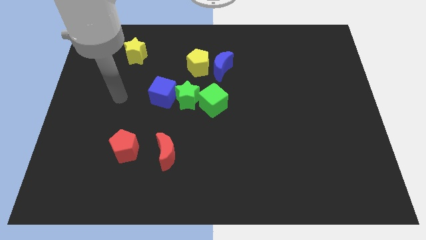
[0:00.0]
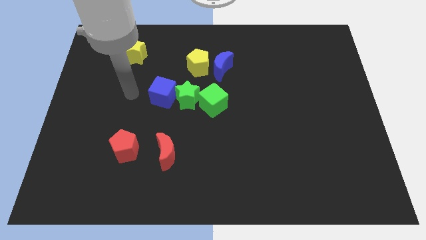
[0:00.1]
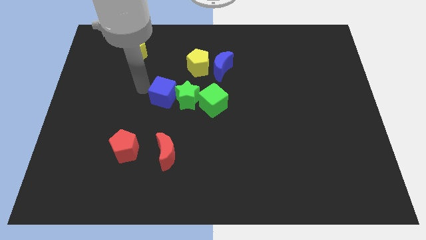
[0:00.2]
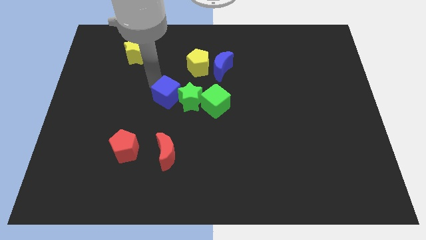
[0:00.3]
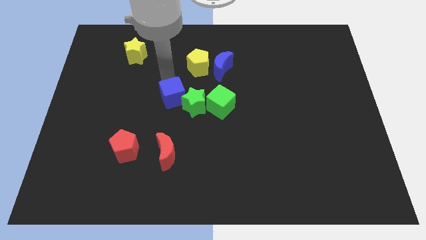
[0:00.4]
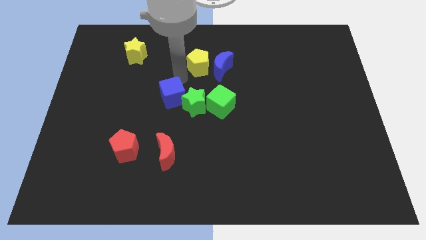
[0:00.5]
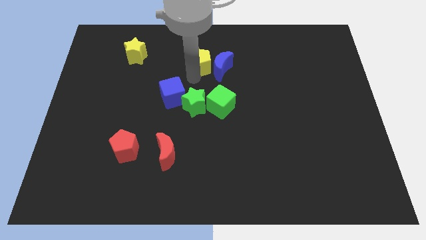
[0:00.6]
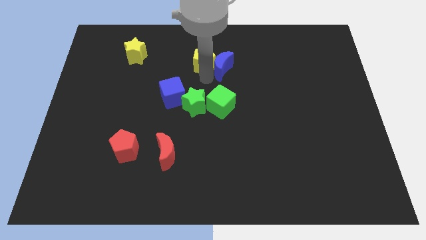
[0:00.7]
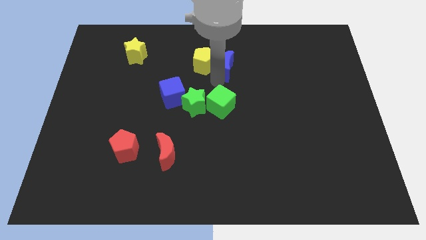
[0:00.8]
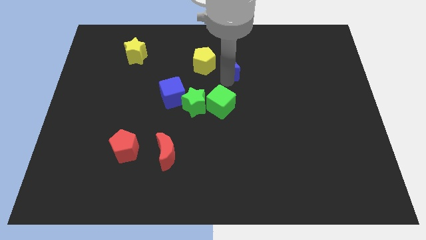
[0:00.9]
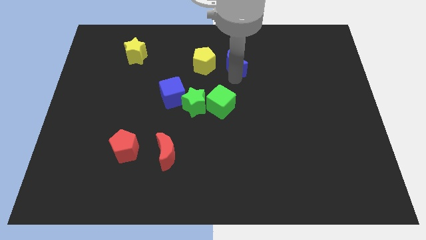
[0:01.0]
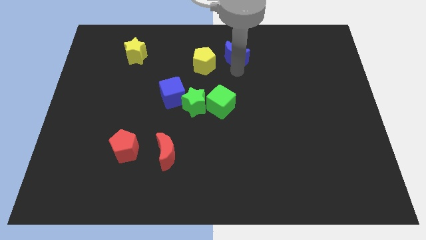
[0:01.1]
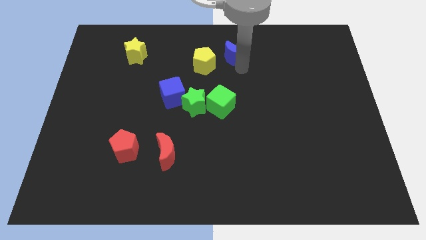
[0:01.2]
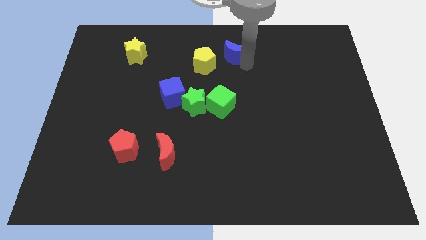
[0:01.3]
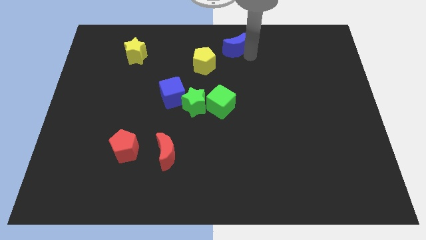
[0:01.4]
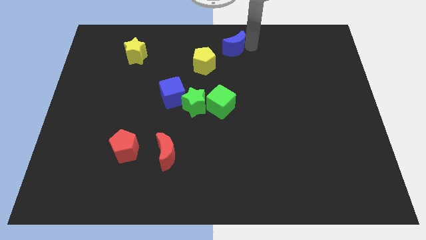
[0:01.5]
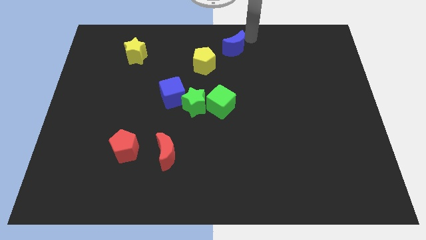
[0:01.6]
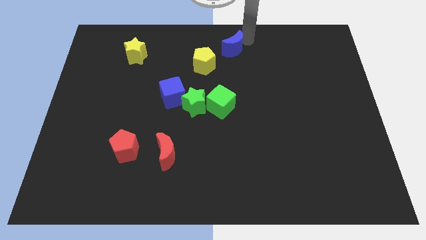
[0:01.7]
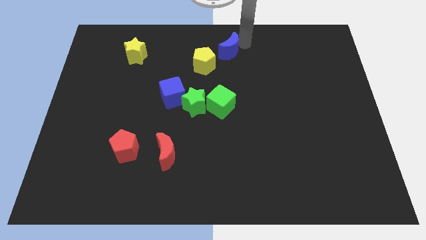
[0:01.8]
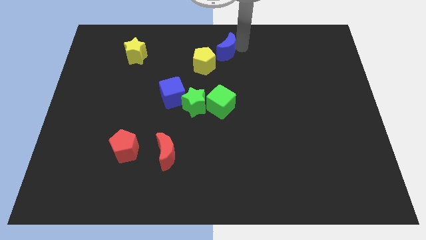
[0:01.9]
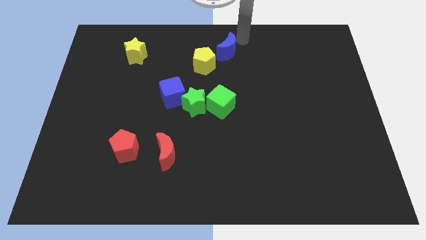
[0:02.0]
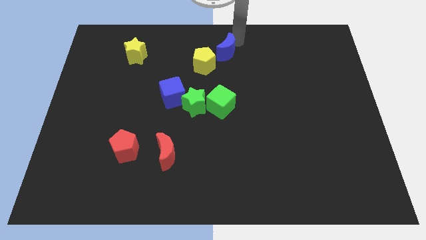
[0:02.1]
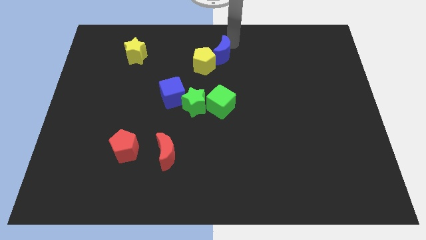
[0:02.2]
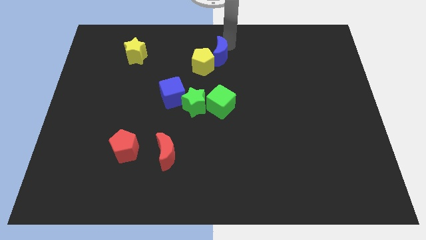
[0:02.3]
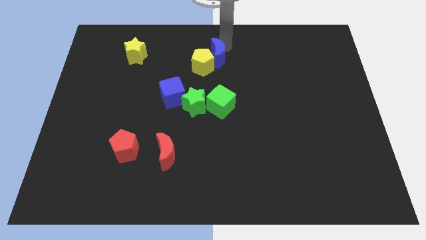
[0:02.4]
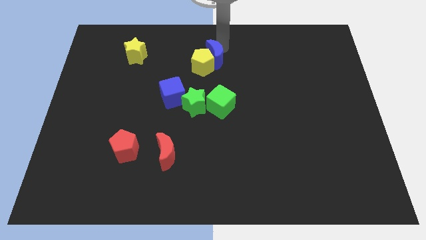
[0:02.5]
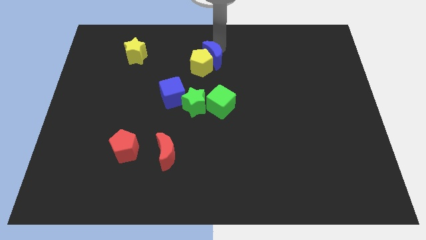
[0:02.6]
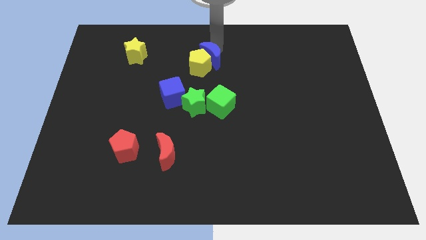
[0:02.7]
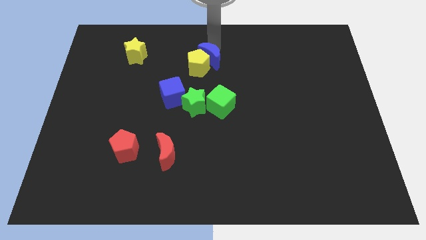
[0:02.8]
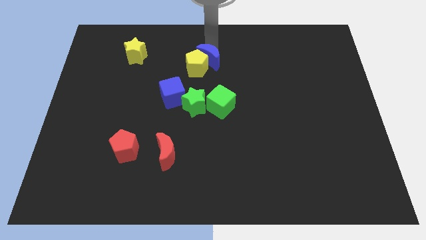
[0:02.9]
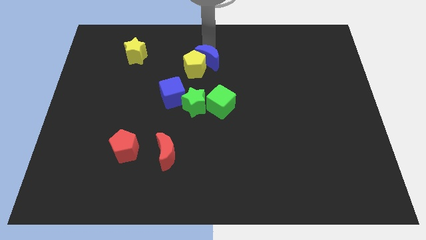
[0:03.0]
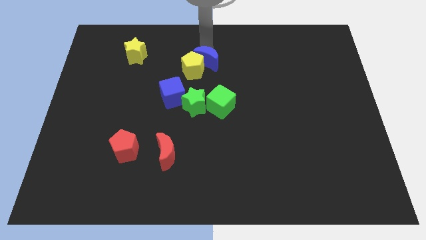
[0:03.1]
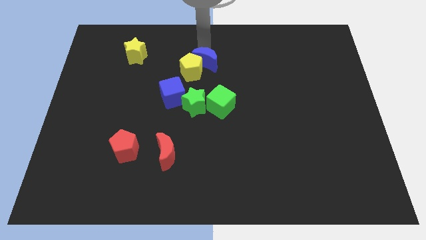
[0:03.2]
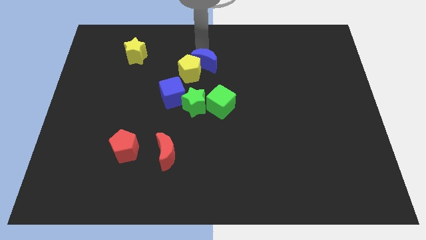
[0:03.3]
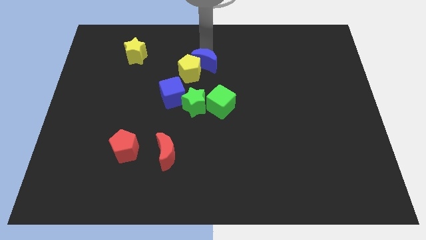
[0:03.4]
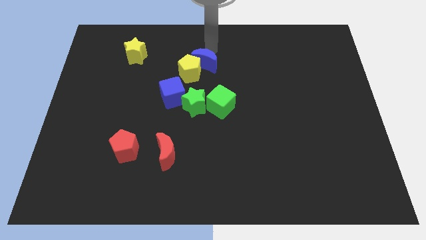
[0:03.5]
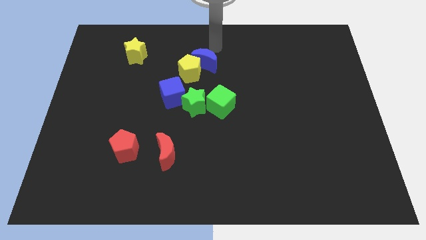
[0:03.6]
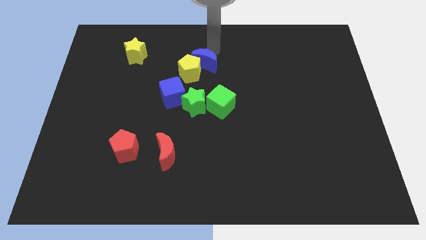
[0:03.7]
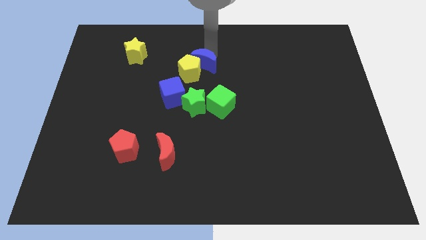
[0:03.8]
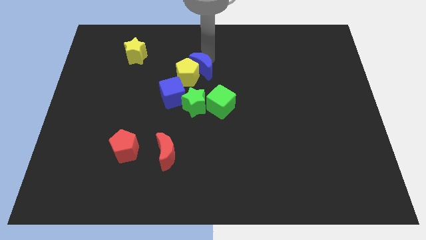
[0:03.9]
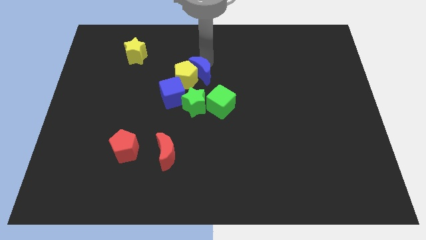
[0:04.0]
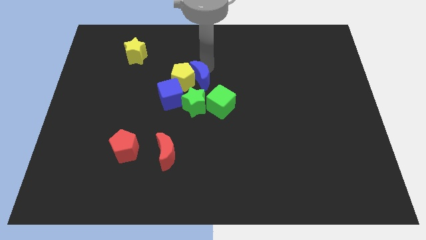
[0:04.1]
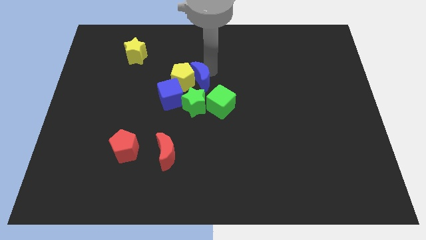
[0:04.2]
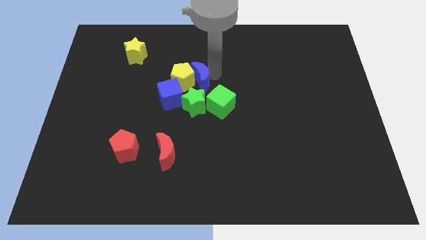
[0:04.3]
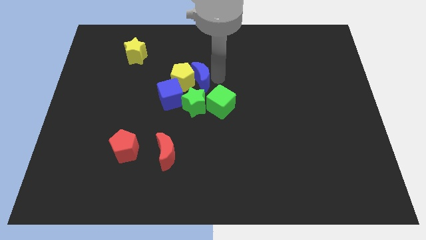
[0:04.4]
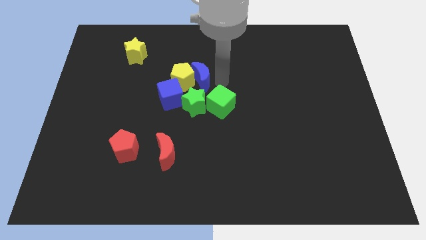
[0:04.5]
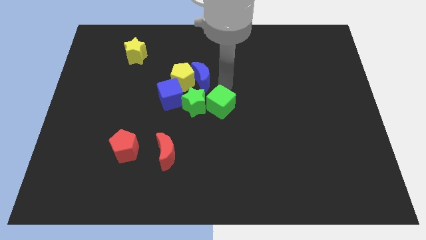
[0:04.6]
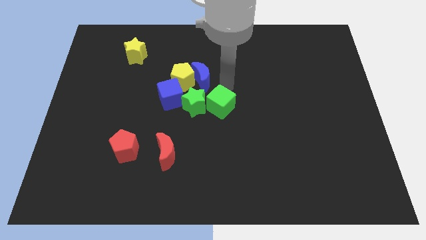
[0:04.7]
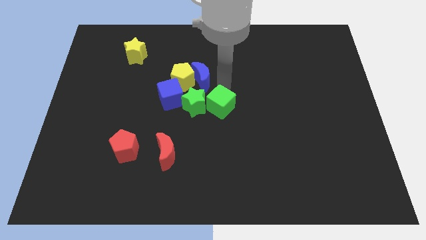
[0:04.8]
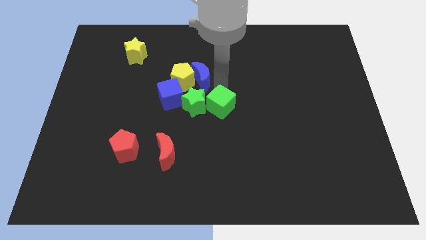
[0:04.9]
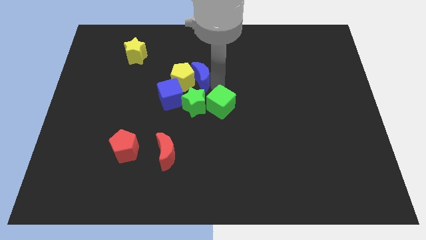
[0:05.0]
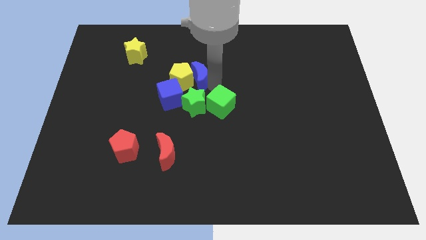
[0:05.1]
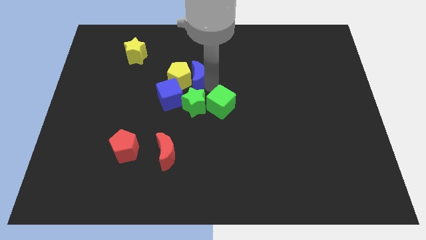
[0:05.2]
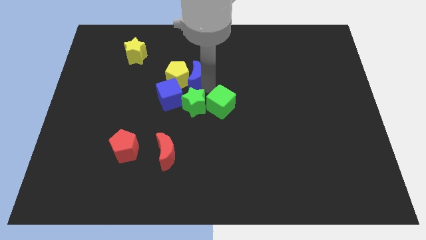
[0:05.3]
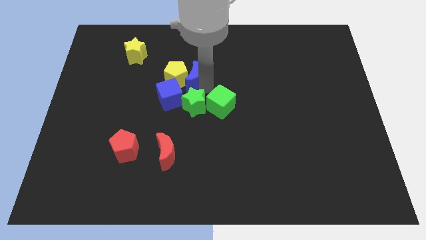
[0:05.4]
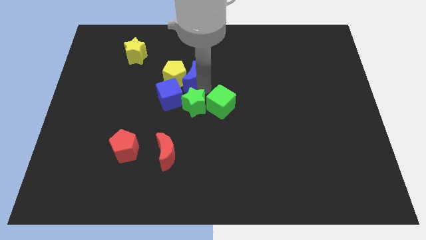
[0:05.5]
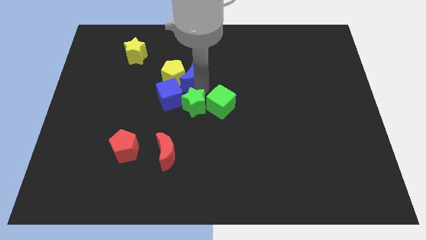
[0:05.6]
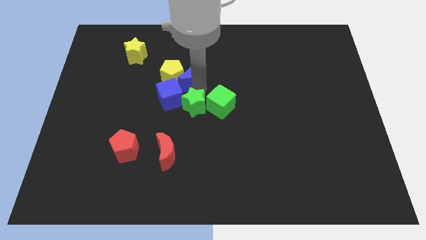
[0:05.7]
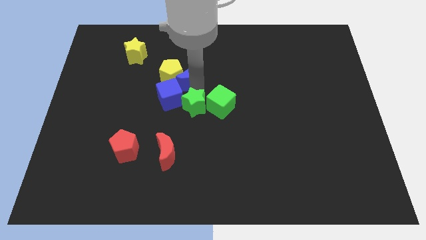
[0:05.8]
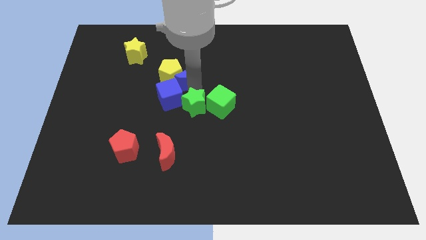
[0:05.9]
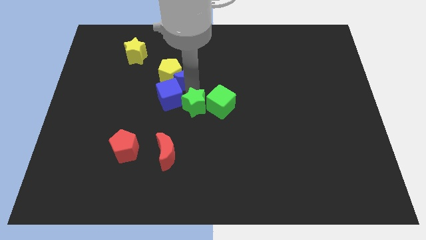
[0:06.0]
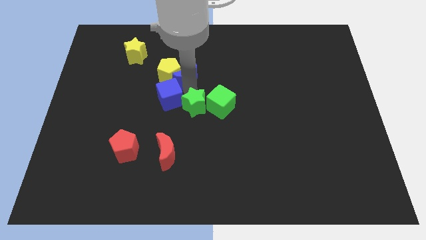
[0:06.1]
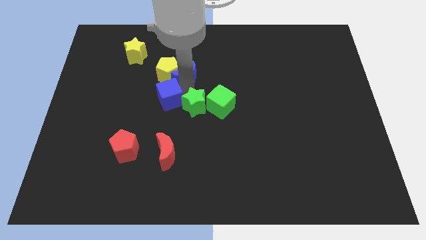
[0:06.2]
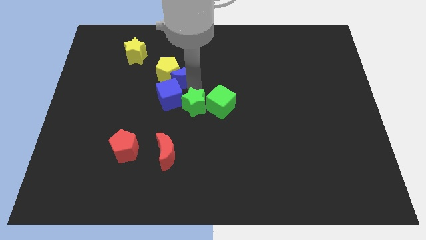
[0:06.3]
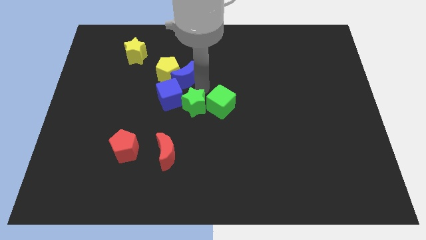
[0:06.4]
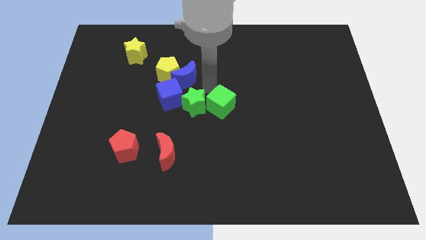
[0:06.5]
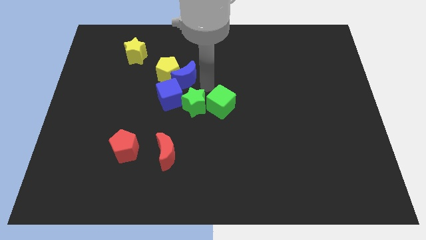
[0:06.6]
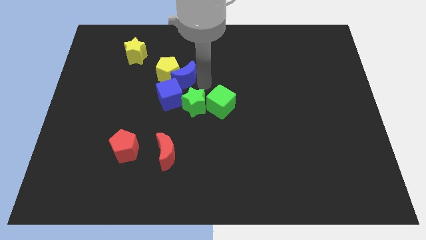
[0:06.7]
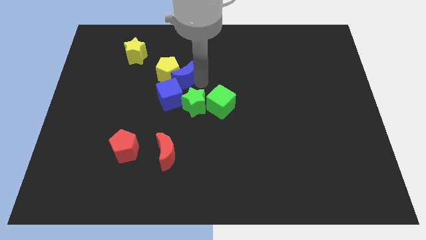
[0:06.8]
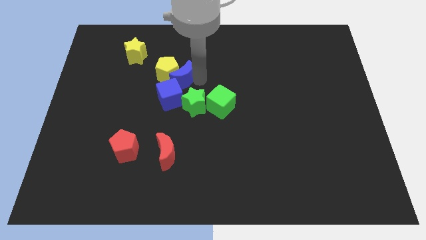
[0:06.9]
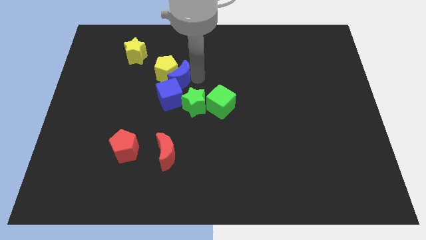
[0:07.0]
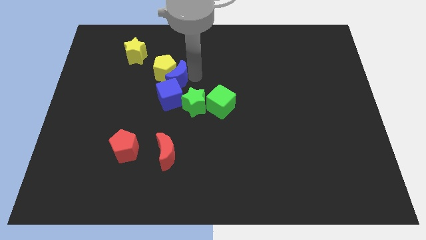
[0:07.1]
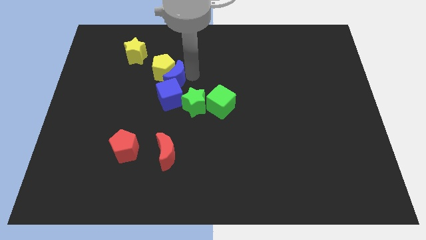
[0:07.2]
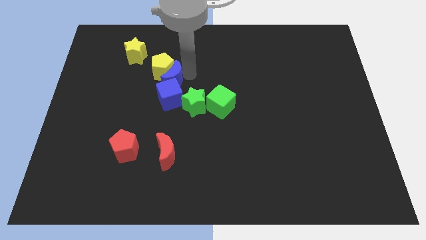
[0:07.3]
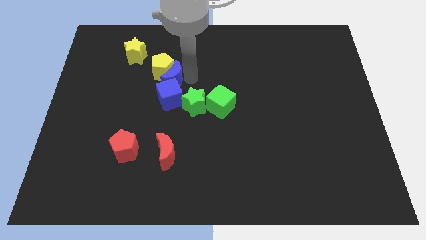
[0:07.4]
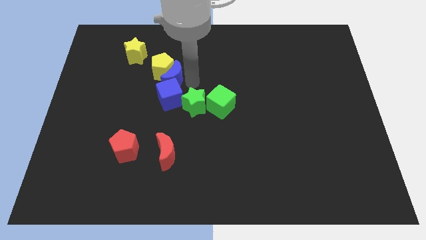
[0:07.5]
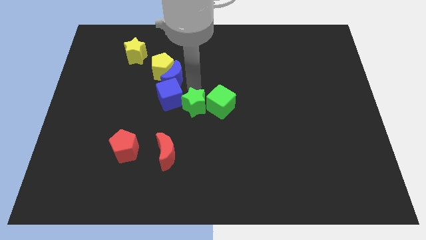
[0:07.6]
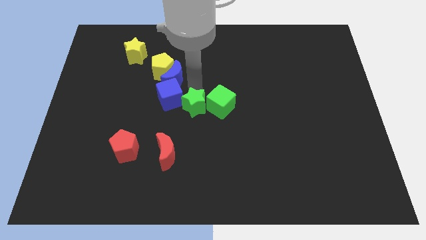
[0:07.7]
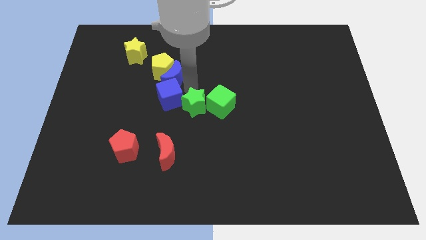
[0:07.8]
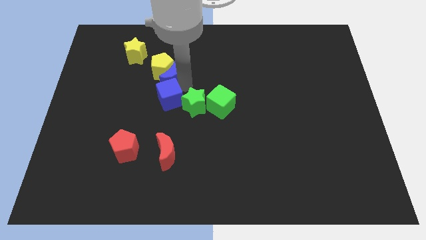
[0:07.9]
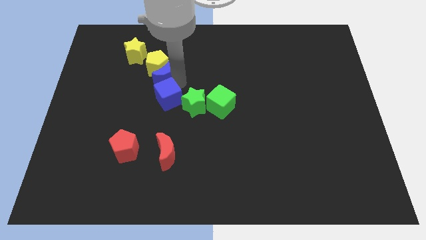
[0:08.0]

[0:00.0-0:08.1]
push the blue moon diagonally down and to the right of the yellow star

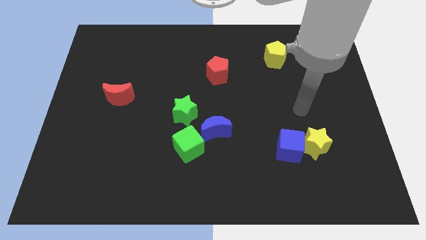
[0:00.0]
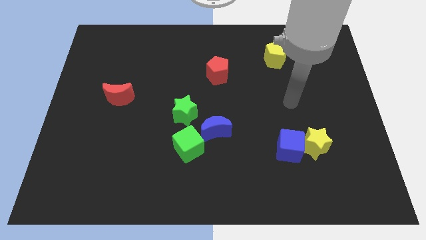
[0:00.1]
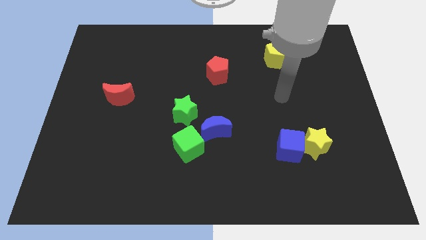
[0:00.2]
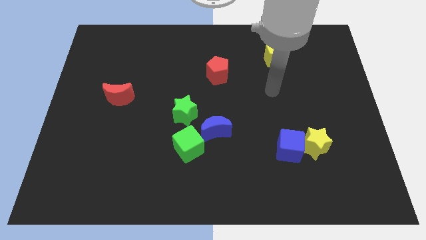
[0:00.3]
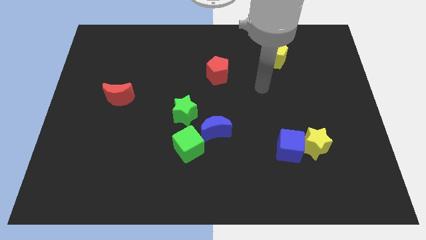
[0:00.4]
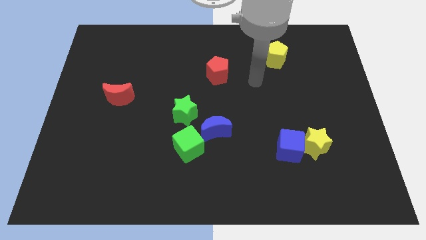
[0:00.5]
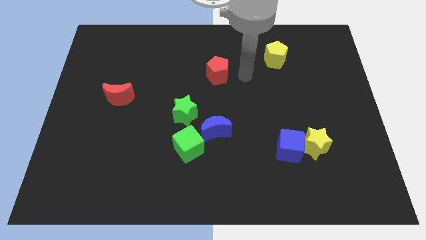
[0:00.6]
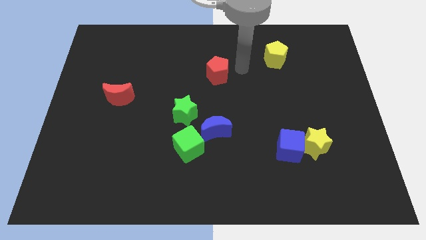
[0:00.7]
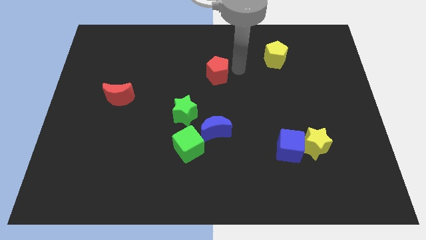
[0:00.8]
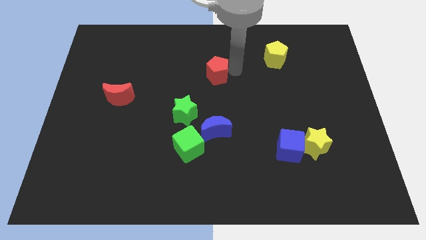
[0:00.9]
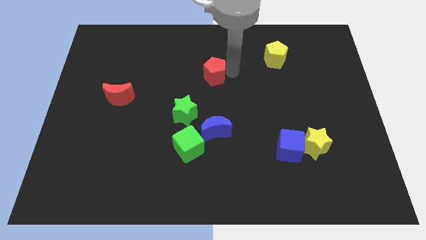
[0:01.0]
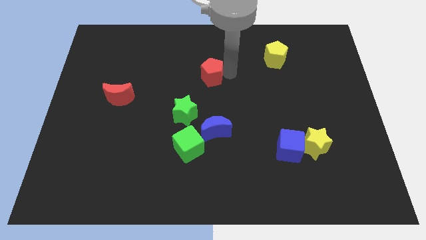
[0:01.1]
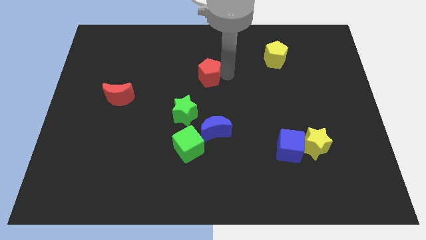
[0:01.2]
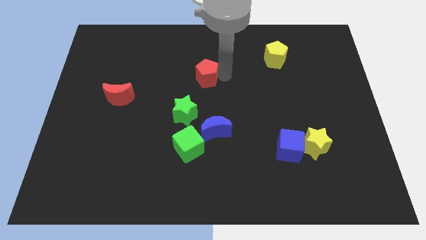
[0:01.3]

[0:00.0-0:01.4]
push the red pentagon to the top of the green star
